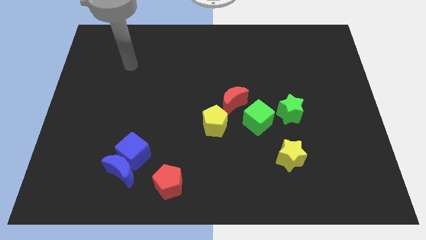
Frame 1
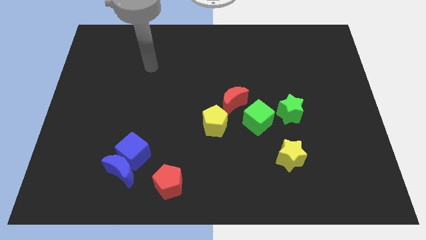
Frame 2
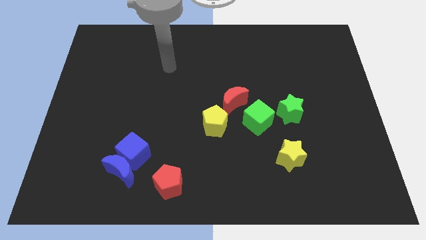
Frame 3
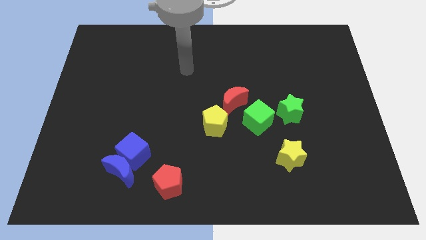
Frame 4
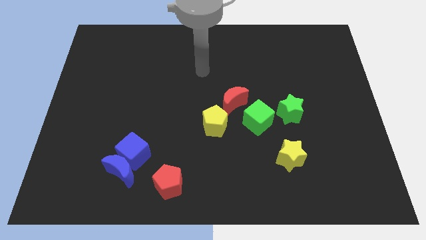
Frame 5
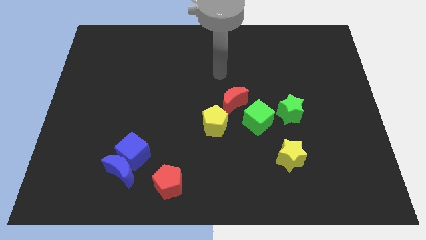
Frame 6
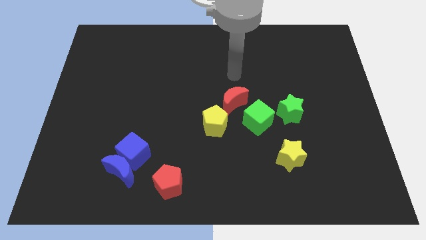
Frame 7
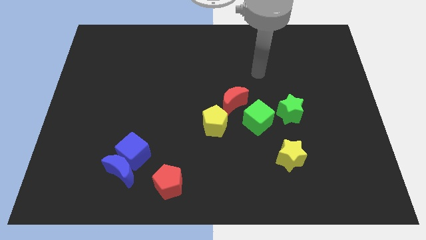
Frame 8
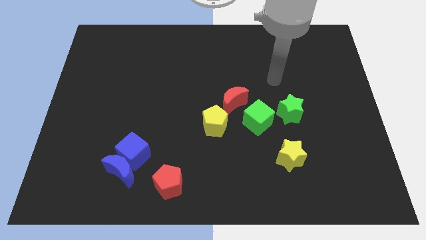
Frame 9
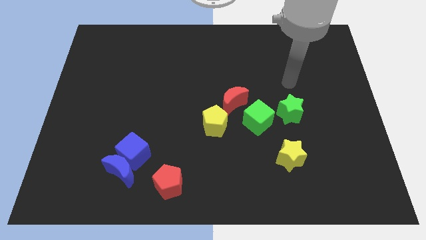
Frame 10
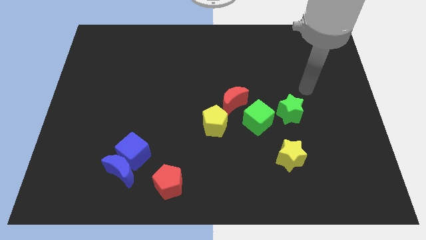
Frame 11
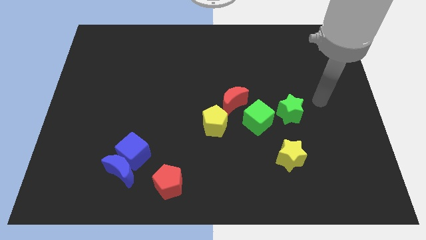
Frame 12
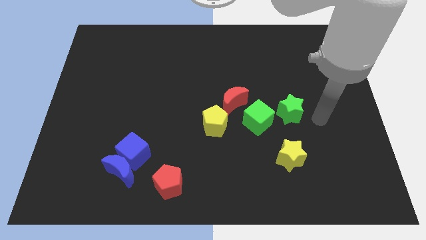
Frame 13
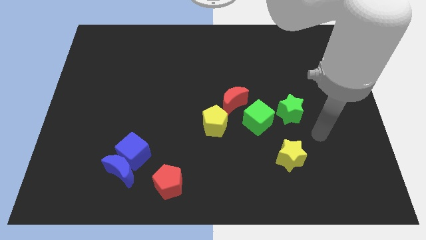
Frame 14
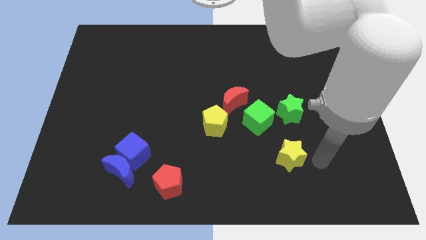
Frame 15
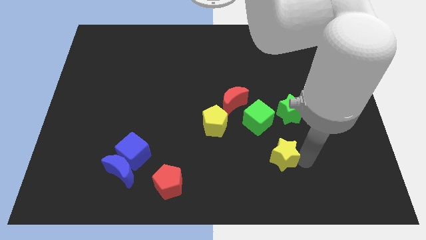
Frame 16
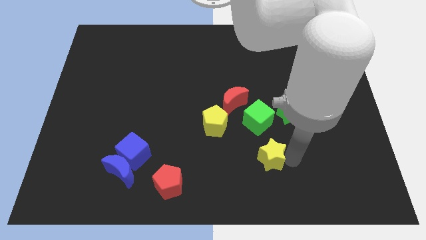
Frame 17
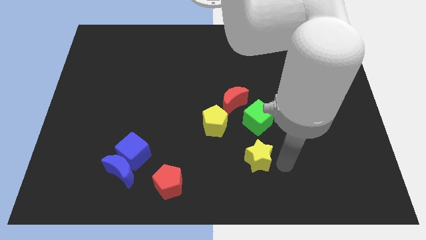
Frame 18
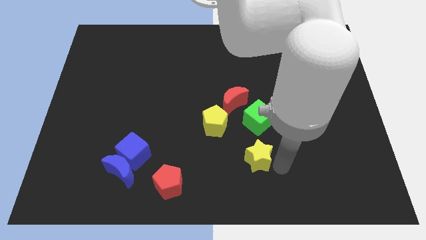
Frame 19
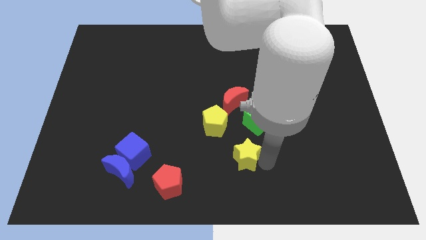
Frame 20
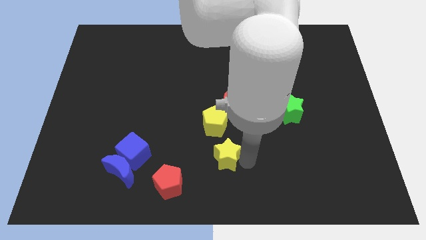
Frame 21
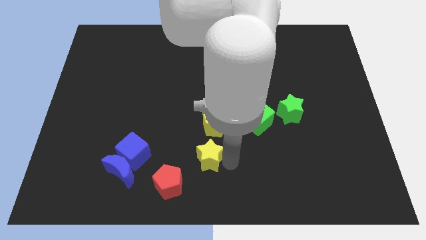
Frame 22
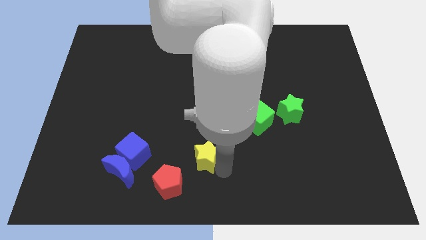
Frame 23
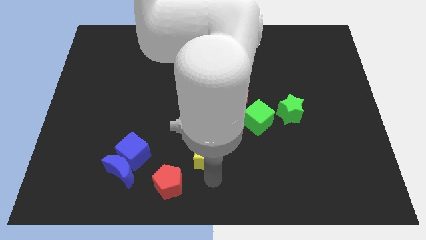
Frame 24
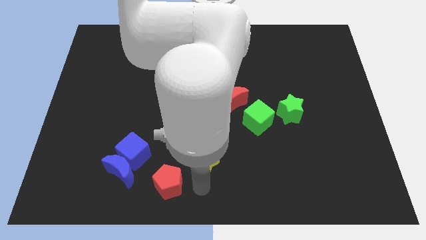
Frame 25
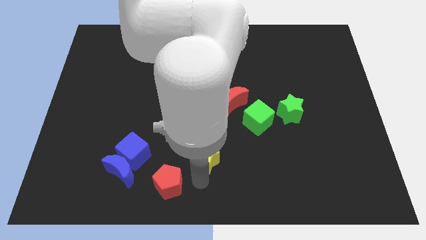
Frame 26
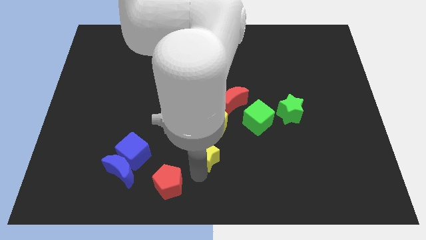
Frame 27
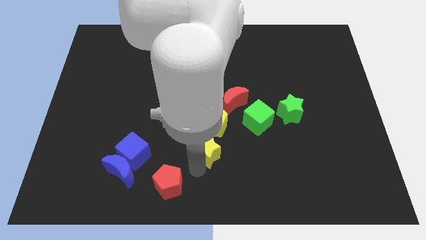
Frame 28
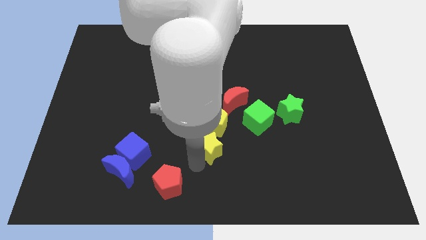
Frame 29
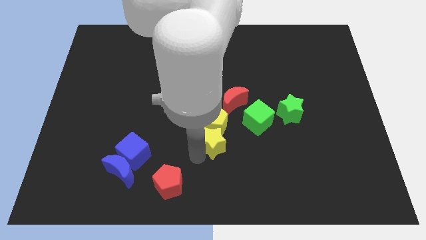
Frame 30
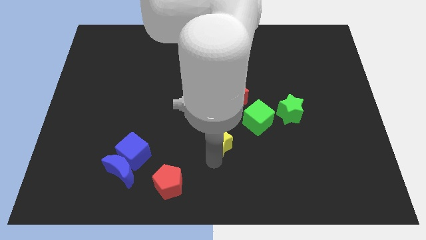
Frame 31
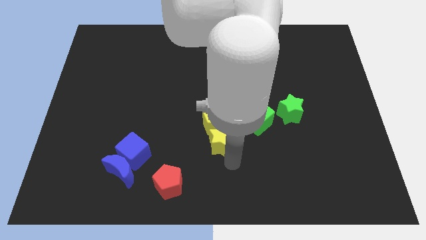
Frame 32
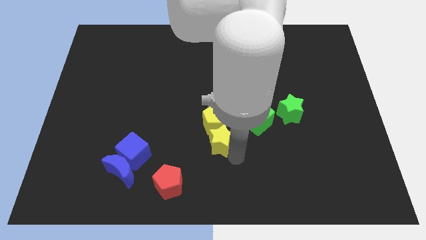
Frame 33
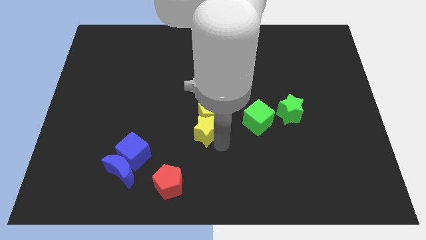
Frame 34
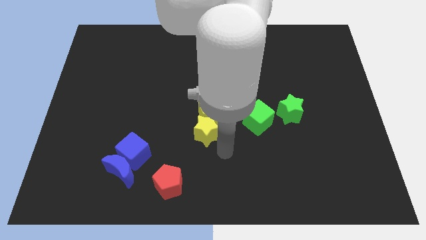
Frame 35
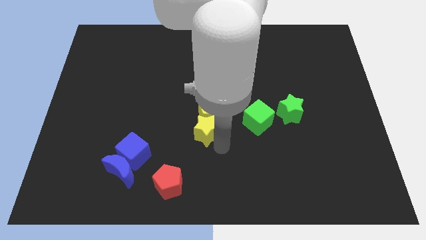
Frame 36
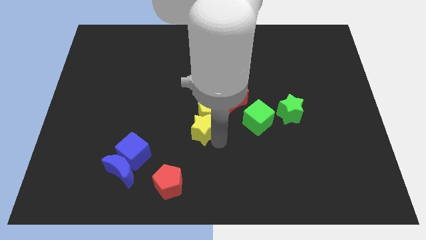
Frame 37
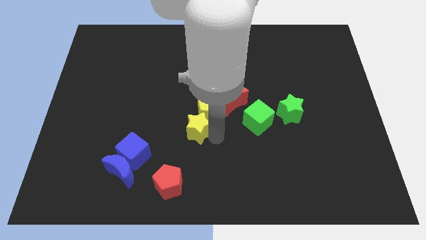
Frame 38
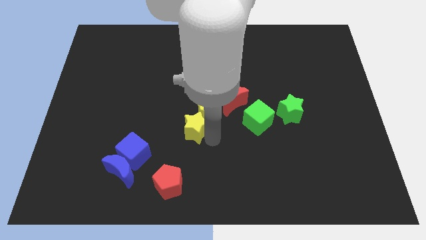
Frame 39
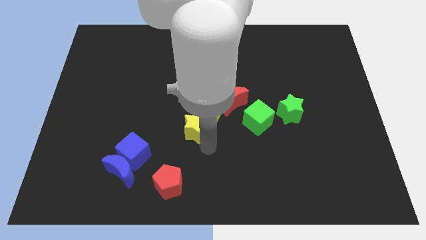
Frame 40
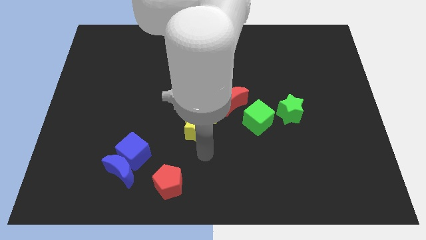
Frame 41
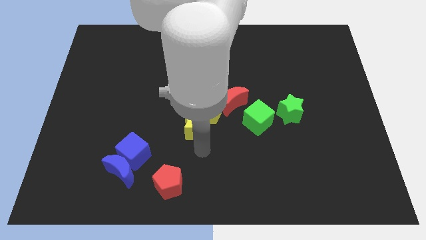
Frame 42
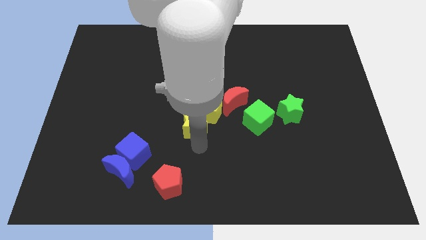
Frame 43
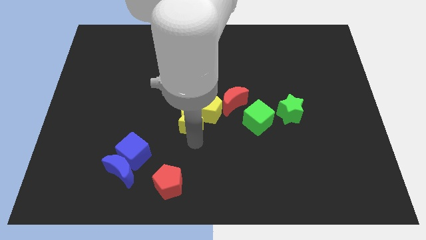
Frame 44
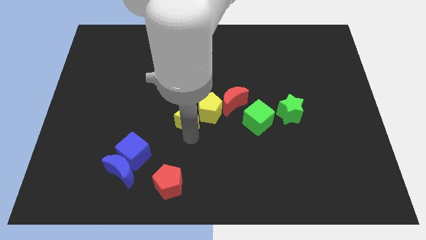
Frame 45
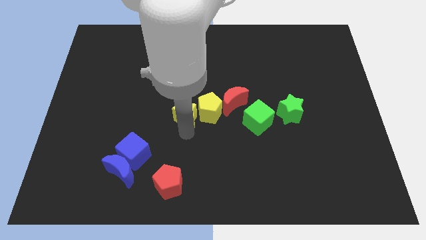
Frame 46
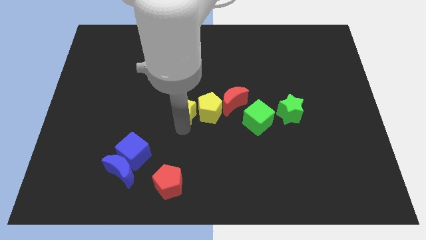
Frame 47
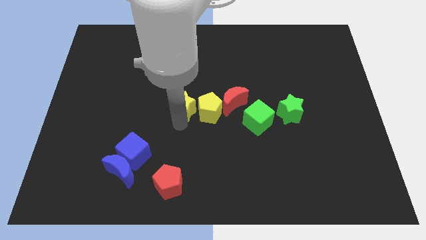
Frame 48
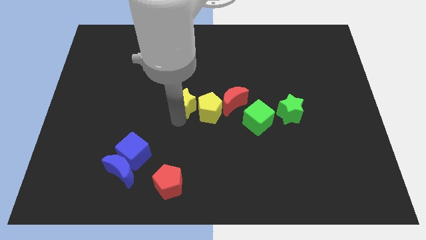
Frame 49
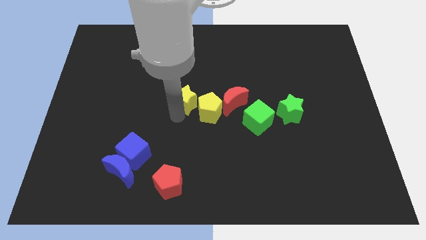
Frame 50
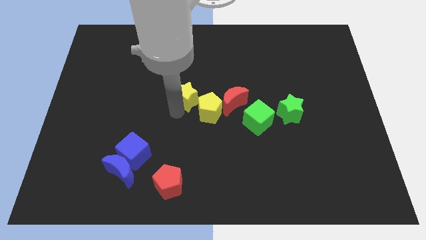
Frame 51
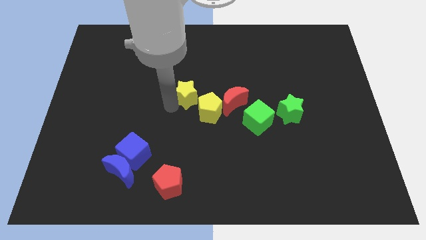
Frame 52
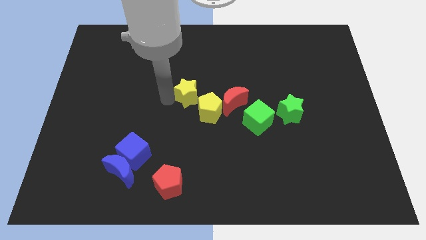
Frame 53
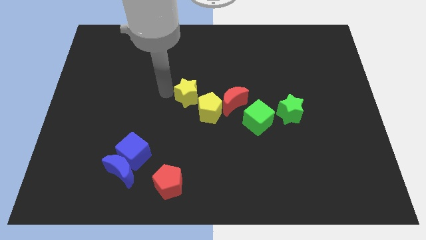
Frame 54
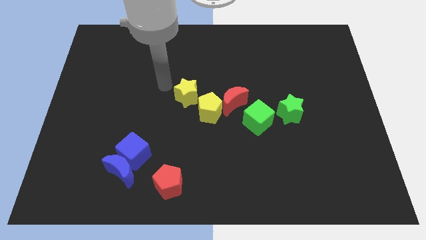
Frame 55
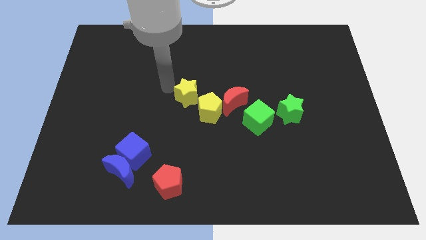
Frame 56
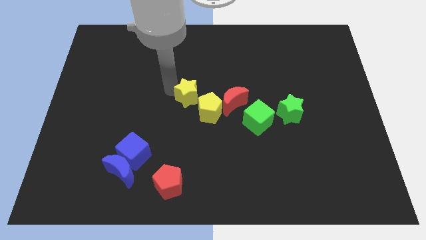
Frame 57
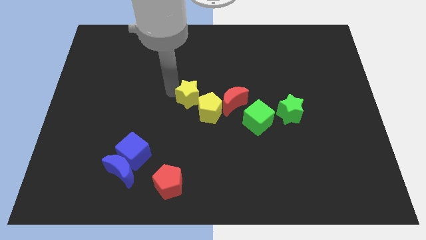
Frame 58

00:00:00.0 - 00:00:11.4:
put the yellow star to the top of the yellow pentagon
